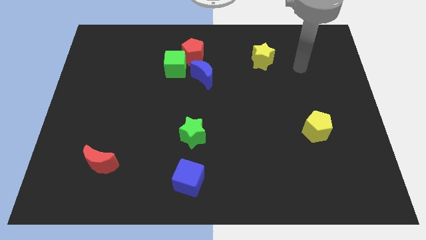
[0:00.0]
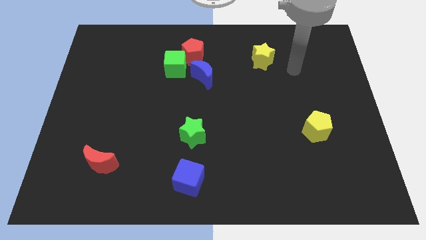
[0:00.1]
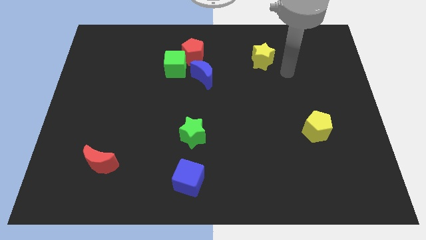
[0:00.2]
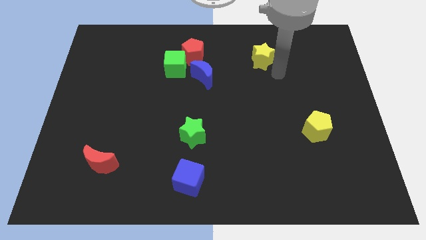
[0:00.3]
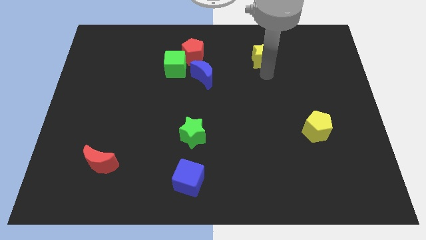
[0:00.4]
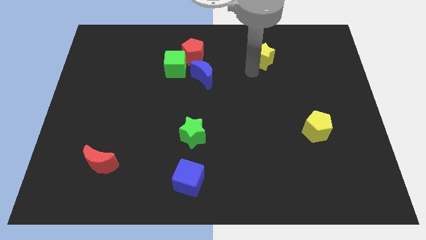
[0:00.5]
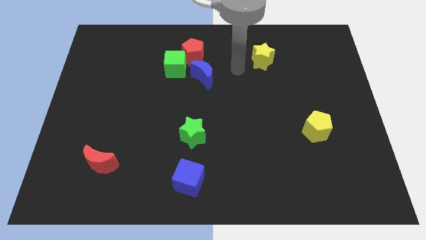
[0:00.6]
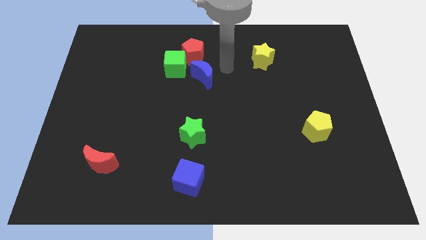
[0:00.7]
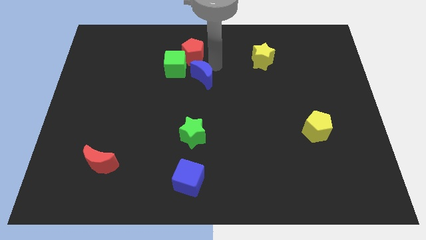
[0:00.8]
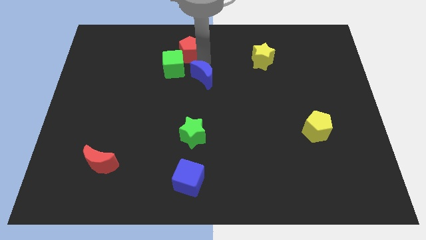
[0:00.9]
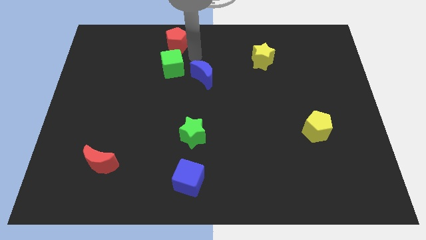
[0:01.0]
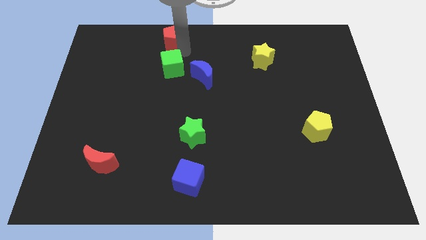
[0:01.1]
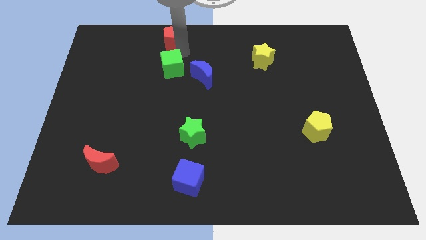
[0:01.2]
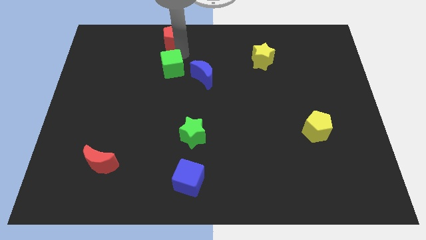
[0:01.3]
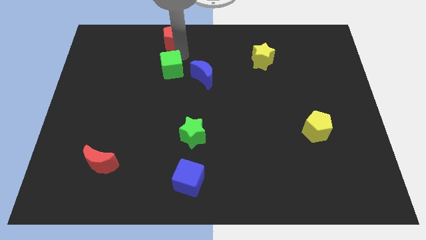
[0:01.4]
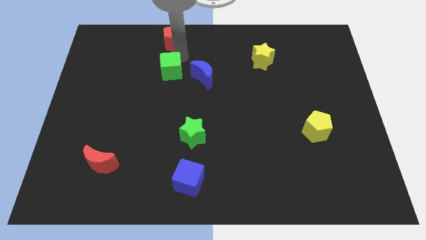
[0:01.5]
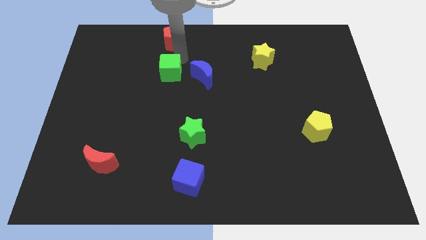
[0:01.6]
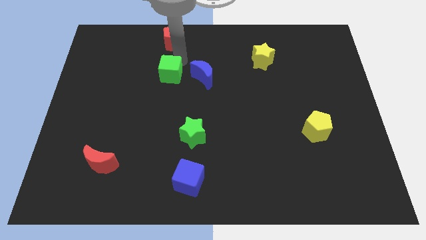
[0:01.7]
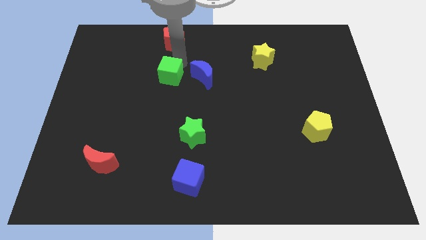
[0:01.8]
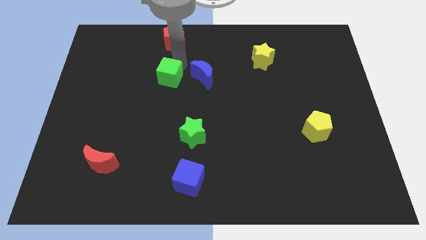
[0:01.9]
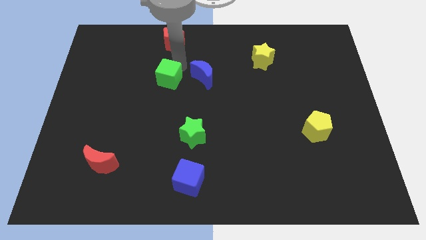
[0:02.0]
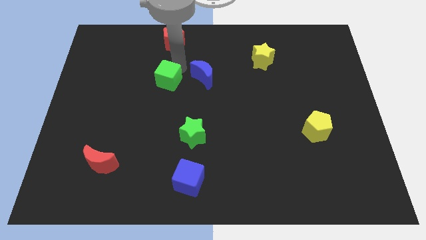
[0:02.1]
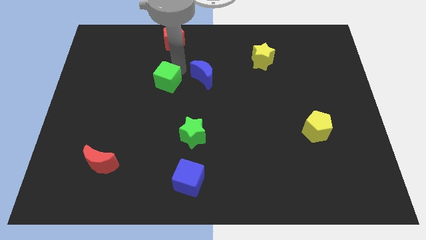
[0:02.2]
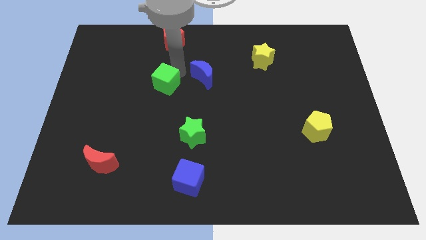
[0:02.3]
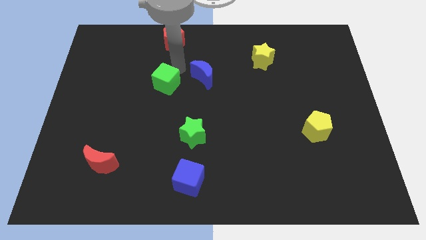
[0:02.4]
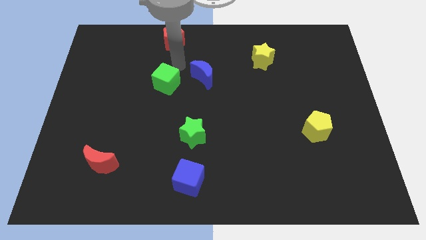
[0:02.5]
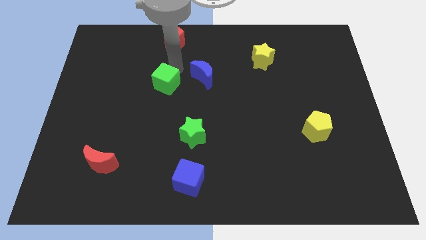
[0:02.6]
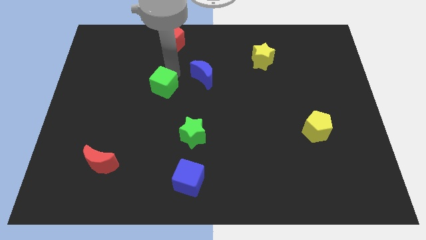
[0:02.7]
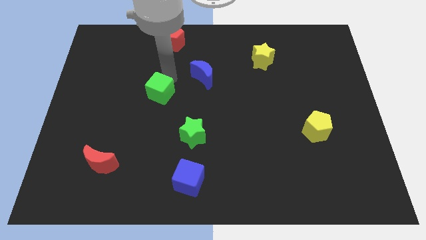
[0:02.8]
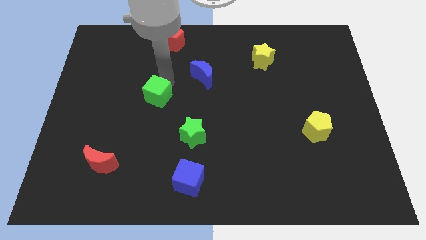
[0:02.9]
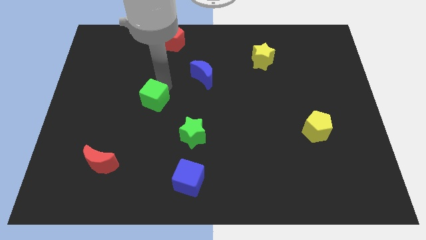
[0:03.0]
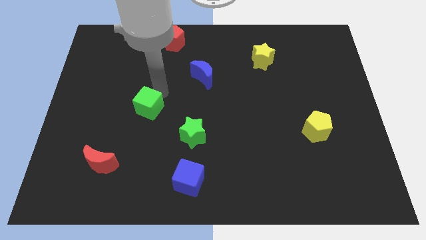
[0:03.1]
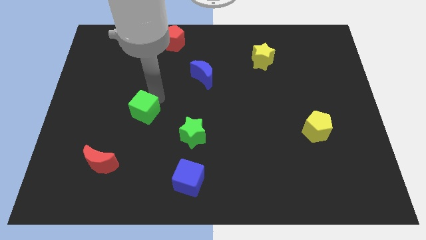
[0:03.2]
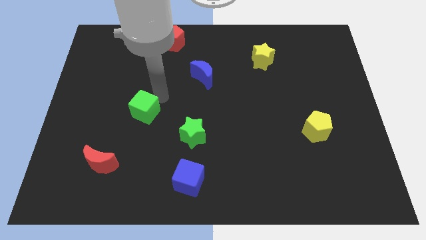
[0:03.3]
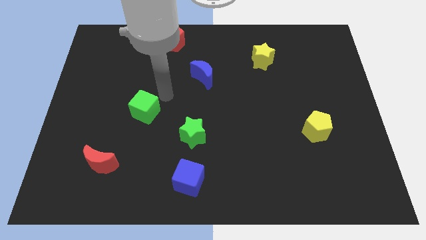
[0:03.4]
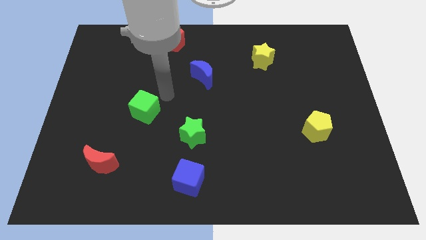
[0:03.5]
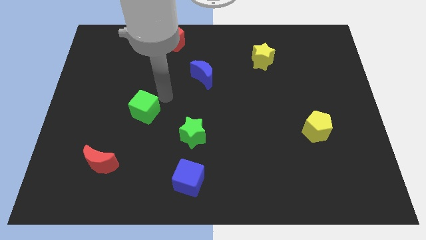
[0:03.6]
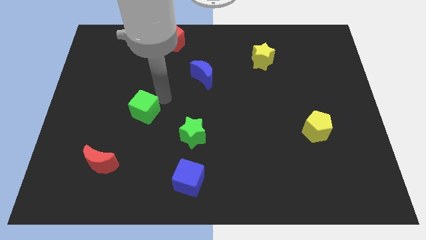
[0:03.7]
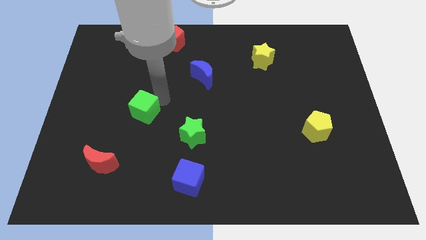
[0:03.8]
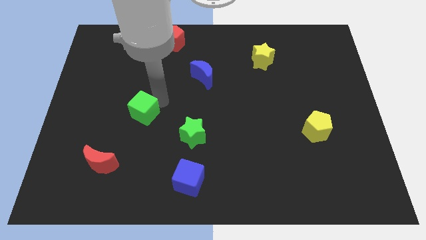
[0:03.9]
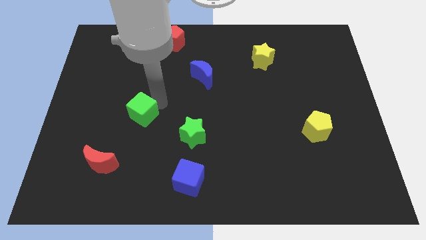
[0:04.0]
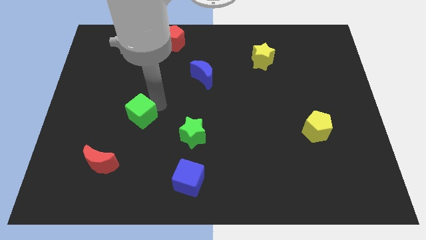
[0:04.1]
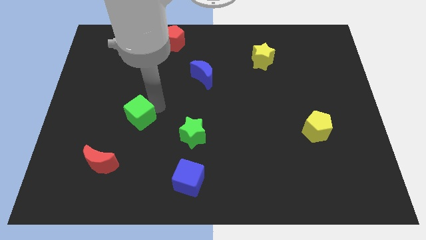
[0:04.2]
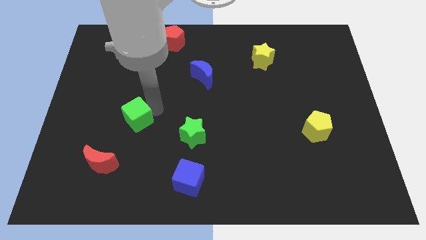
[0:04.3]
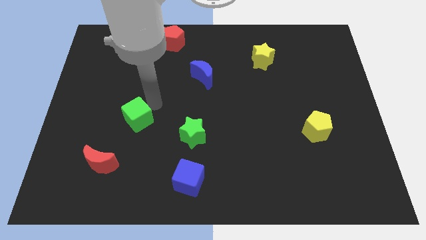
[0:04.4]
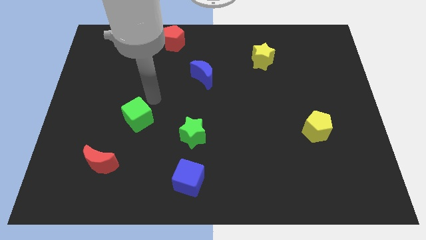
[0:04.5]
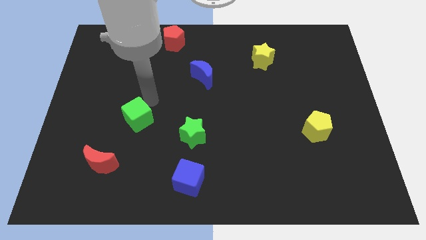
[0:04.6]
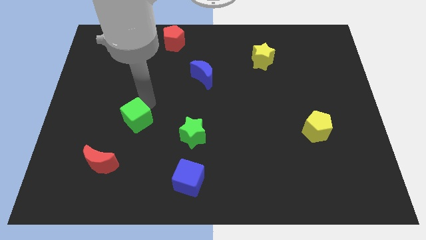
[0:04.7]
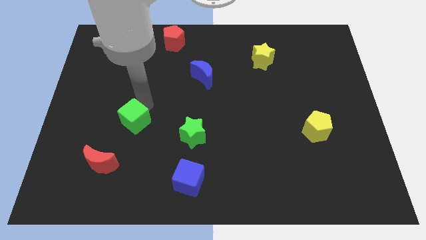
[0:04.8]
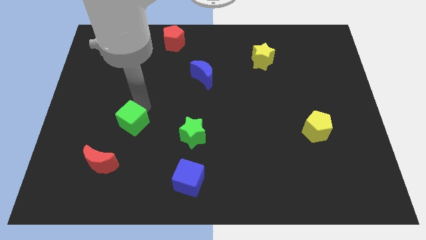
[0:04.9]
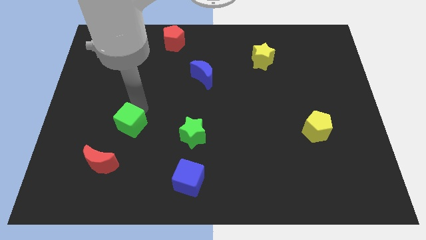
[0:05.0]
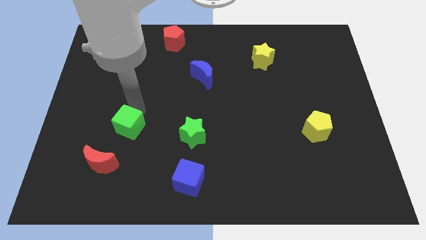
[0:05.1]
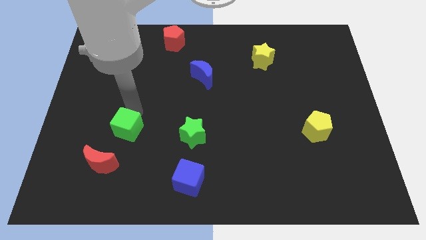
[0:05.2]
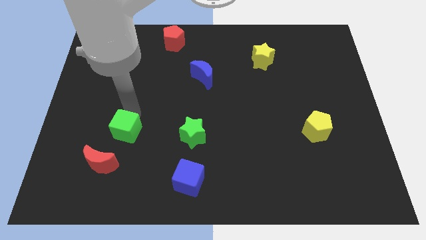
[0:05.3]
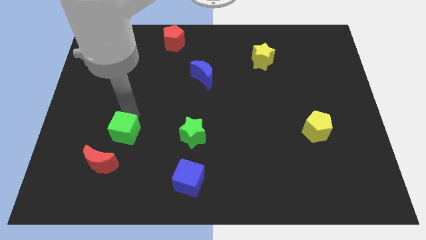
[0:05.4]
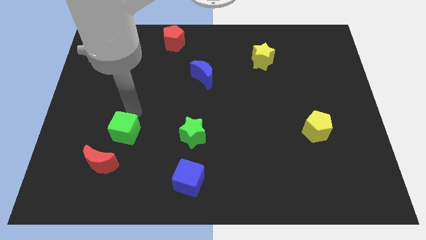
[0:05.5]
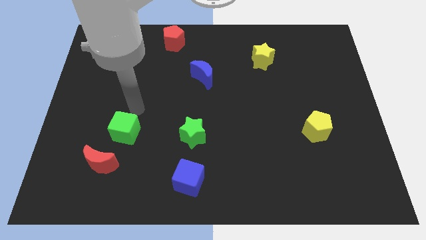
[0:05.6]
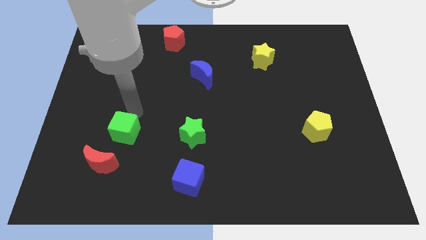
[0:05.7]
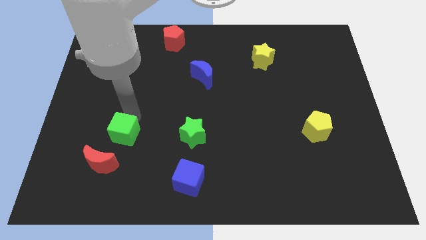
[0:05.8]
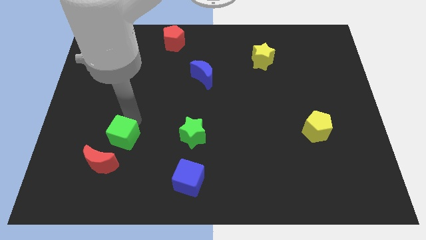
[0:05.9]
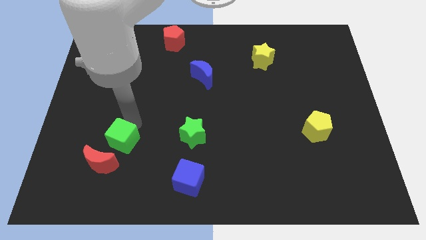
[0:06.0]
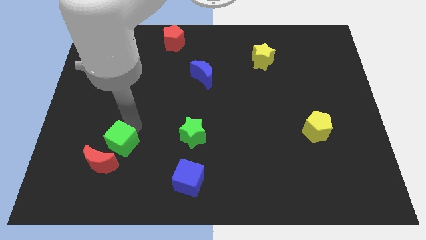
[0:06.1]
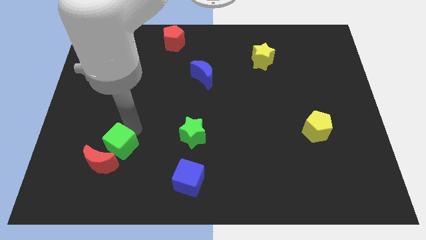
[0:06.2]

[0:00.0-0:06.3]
slide the green cube towards the red moon
